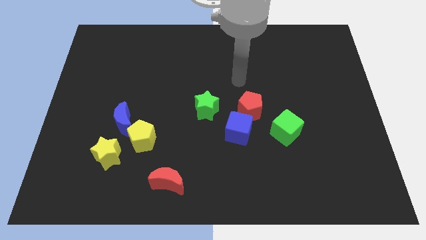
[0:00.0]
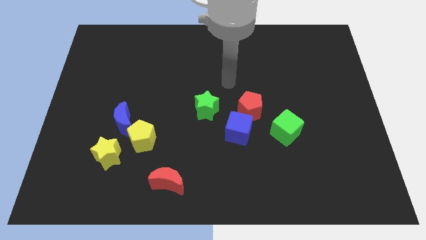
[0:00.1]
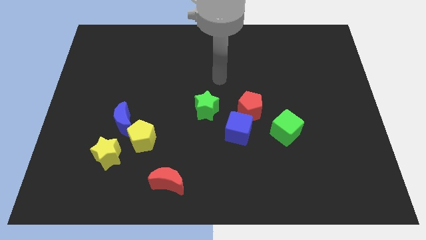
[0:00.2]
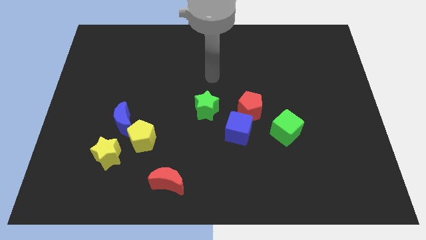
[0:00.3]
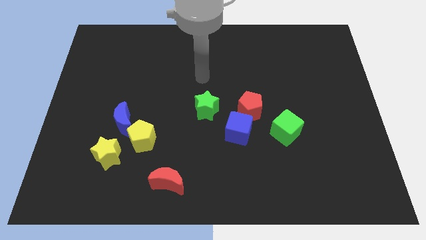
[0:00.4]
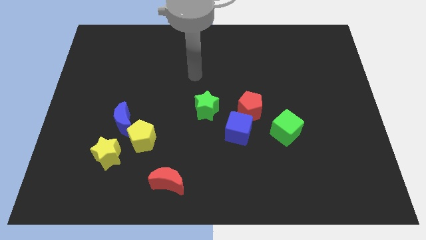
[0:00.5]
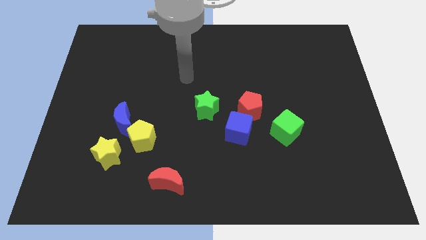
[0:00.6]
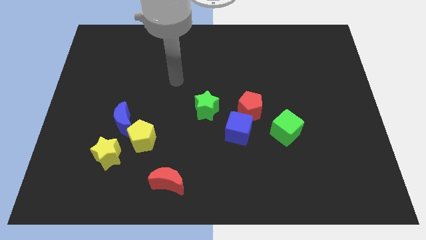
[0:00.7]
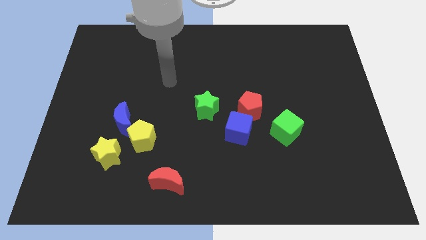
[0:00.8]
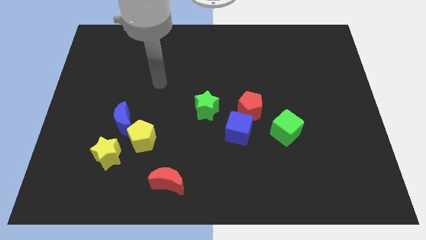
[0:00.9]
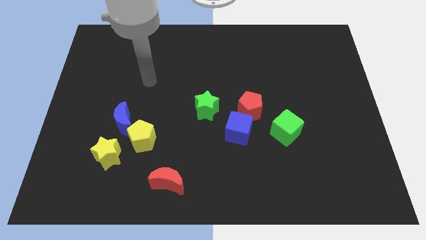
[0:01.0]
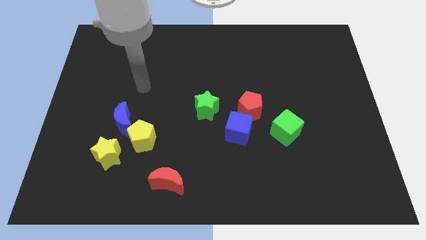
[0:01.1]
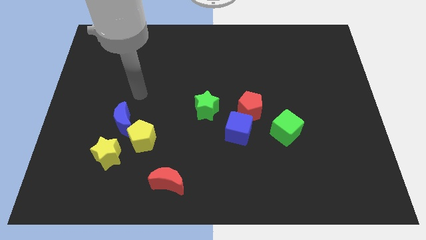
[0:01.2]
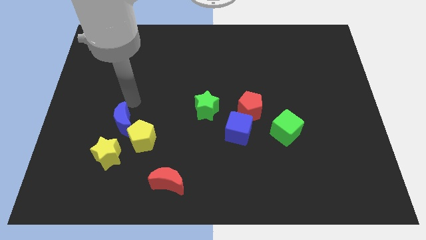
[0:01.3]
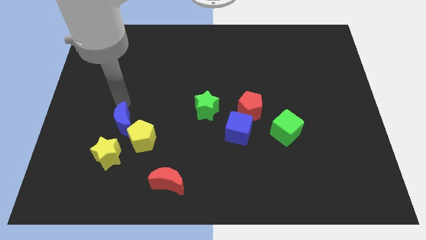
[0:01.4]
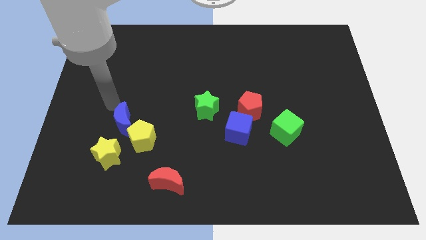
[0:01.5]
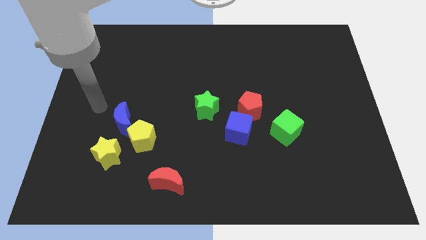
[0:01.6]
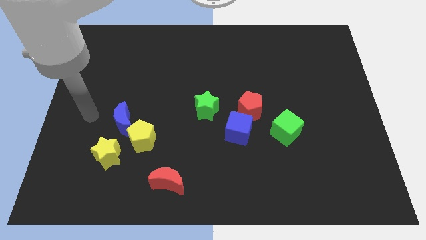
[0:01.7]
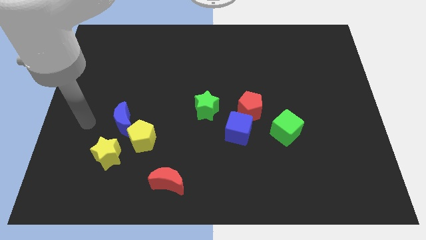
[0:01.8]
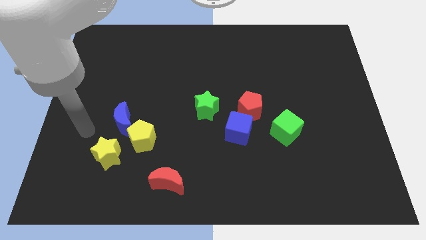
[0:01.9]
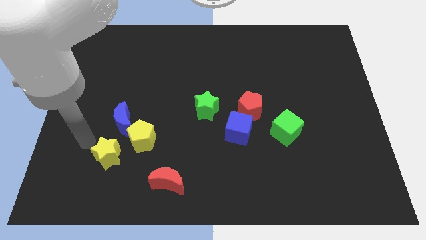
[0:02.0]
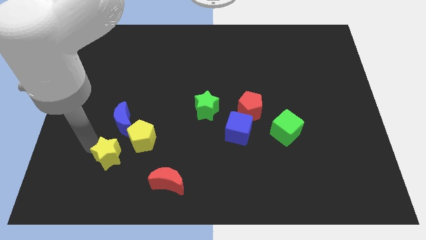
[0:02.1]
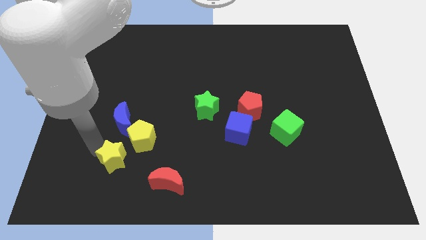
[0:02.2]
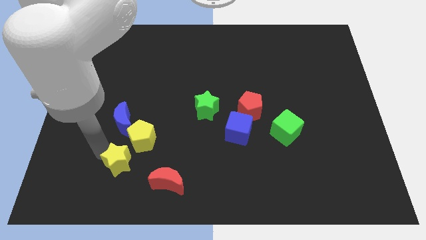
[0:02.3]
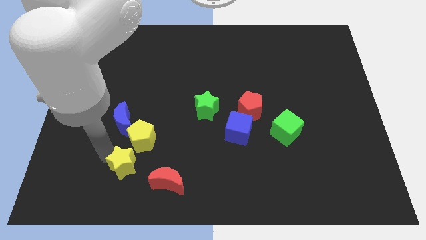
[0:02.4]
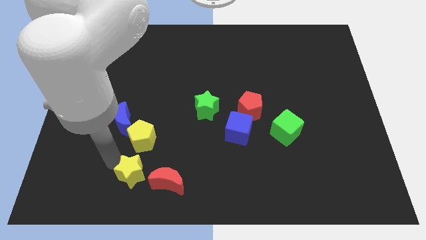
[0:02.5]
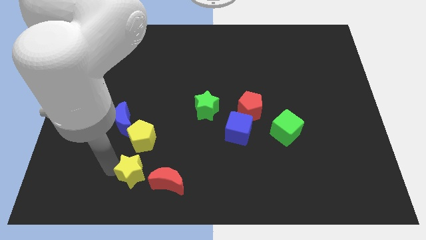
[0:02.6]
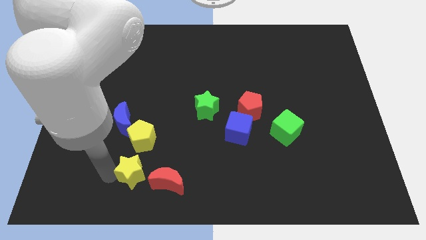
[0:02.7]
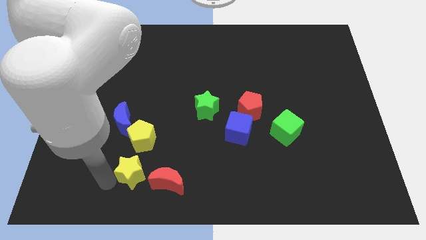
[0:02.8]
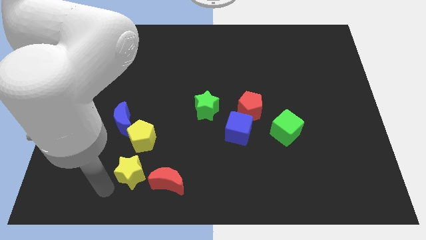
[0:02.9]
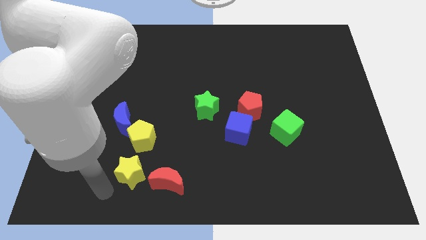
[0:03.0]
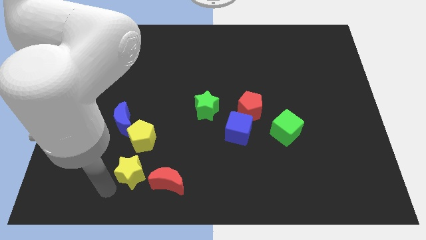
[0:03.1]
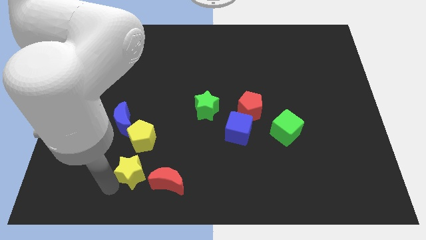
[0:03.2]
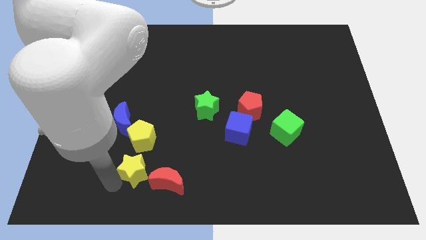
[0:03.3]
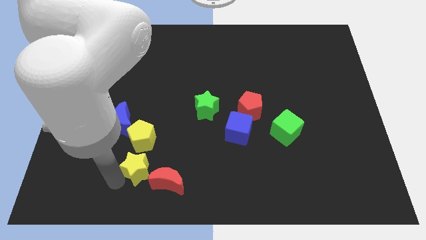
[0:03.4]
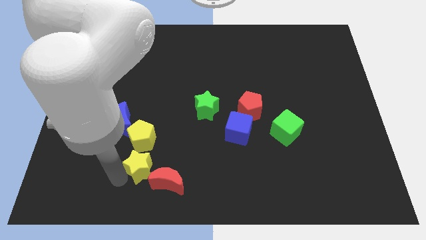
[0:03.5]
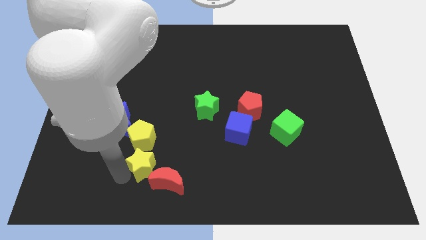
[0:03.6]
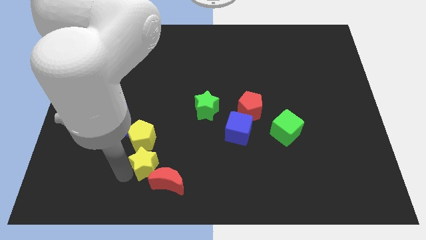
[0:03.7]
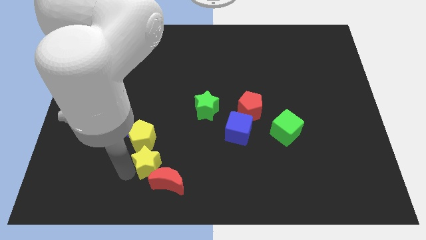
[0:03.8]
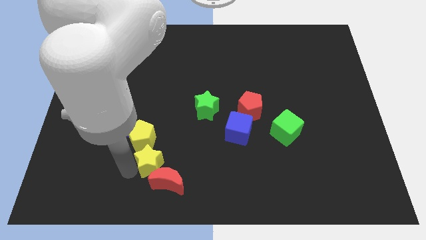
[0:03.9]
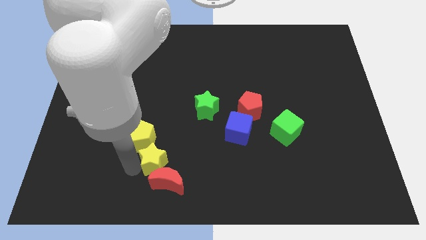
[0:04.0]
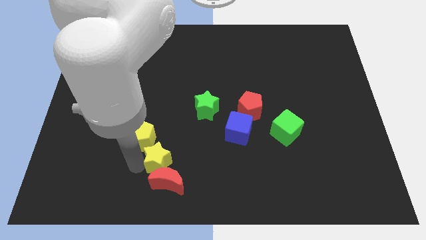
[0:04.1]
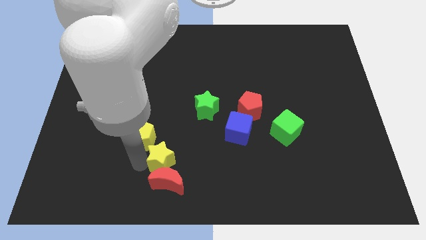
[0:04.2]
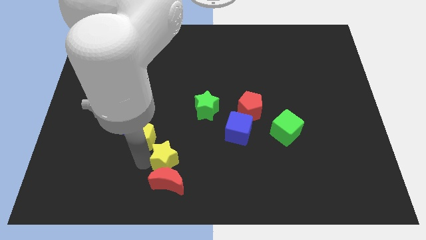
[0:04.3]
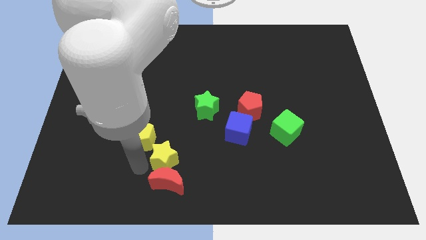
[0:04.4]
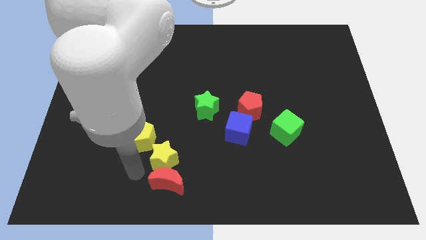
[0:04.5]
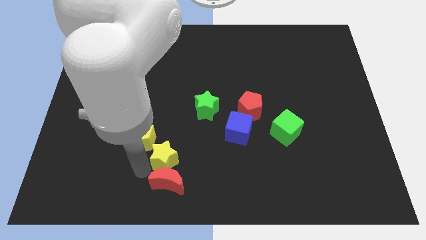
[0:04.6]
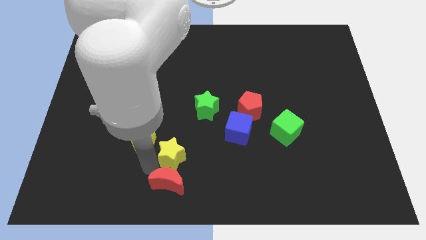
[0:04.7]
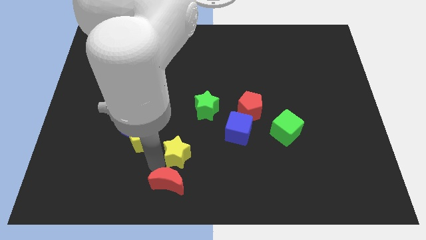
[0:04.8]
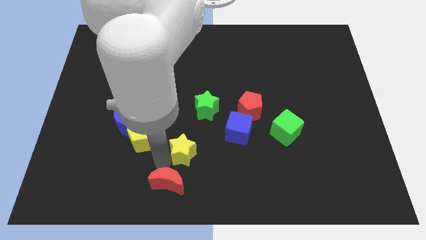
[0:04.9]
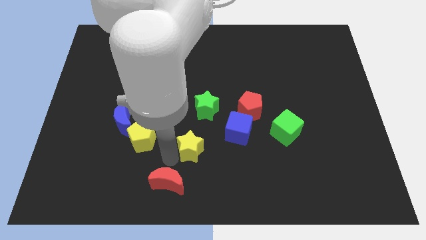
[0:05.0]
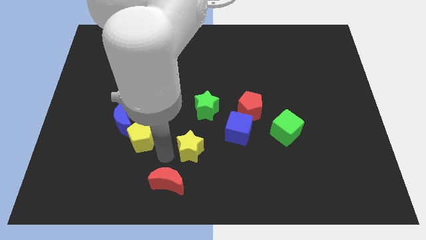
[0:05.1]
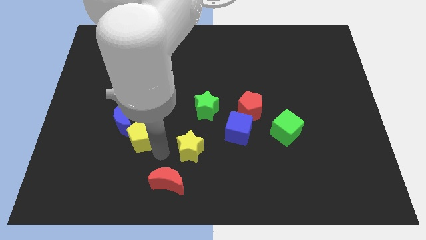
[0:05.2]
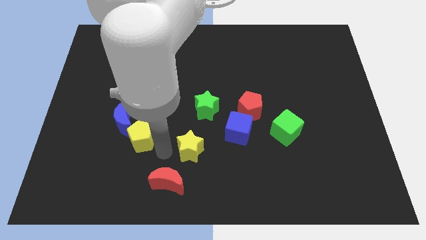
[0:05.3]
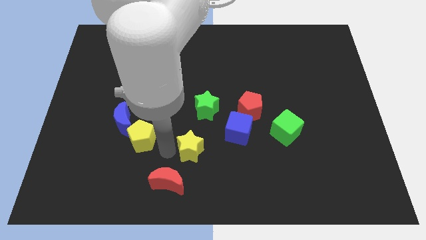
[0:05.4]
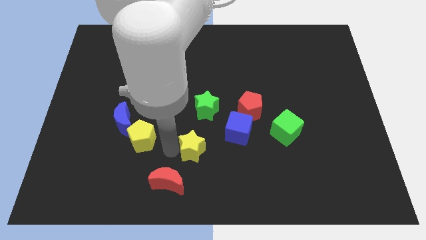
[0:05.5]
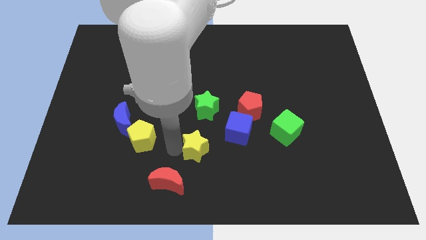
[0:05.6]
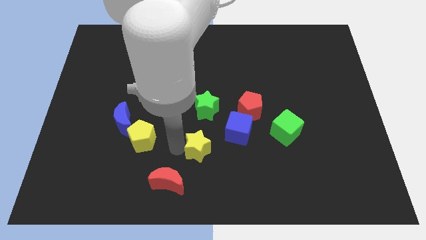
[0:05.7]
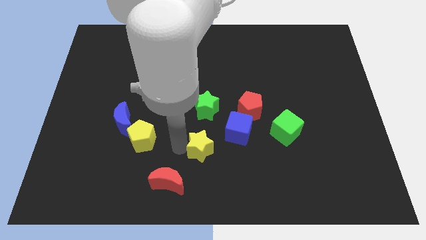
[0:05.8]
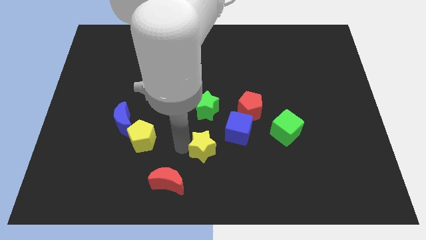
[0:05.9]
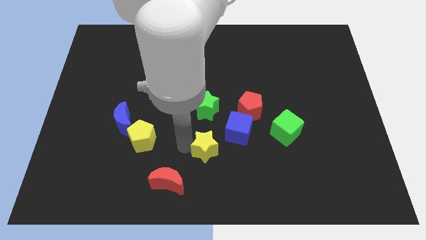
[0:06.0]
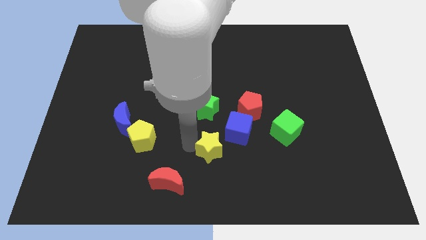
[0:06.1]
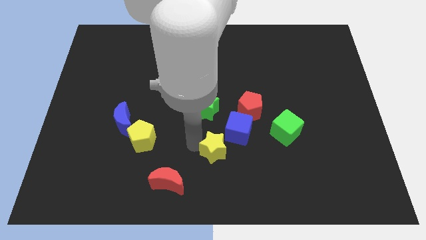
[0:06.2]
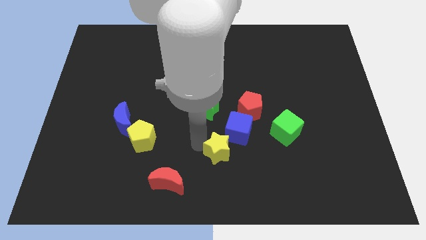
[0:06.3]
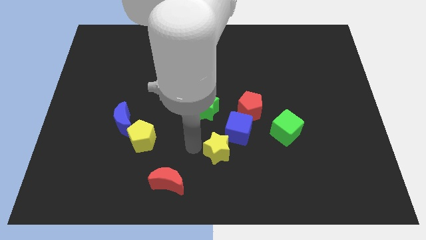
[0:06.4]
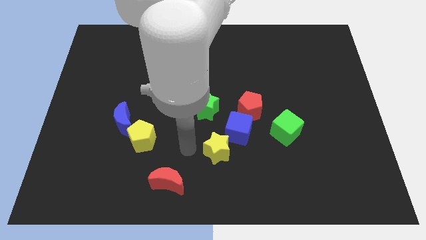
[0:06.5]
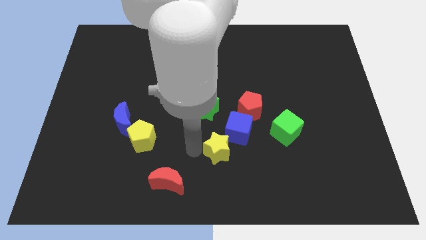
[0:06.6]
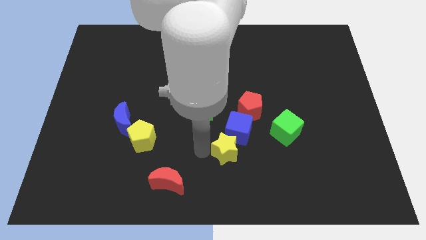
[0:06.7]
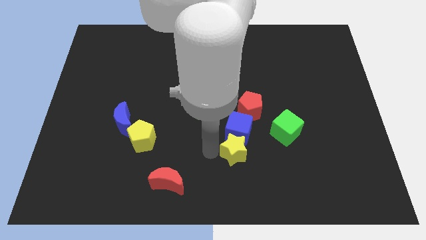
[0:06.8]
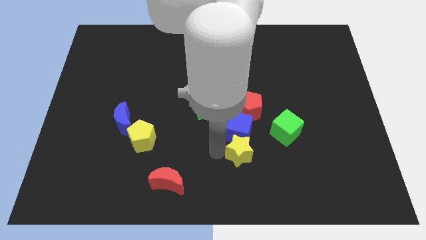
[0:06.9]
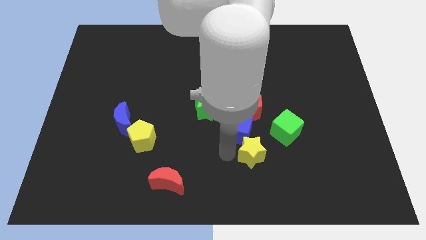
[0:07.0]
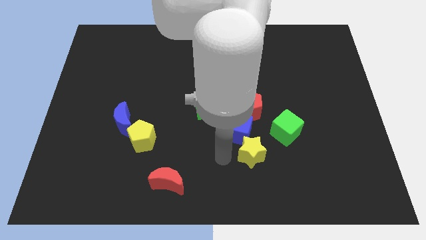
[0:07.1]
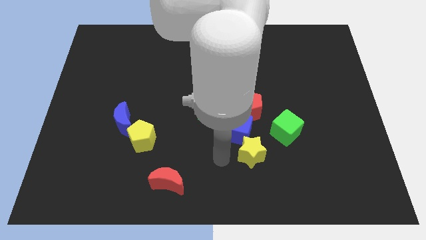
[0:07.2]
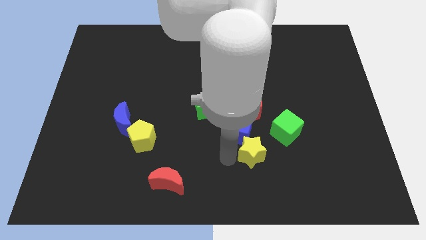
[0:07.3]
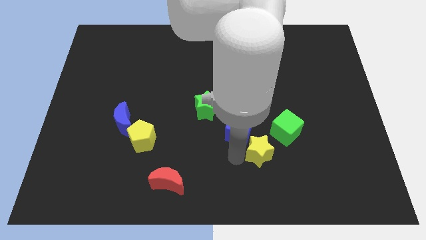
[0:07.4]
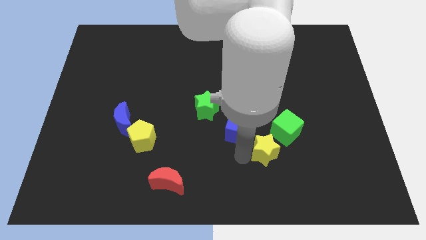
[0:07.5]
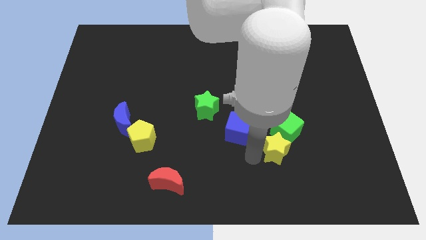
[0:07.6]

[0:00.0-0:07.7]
slide the yellow star close to the green cube
